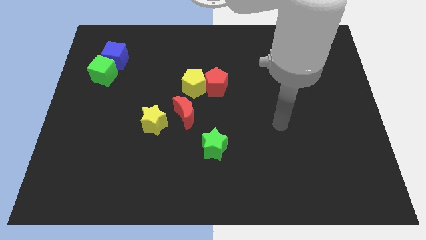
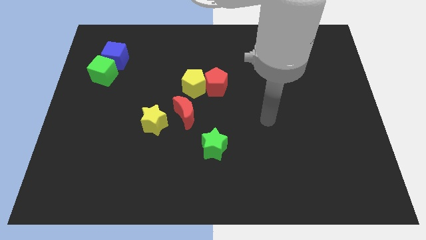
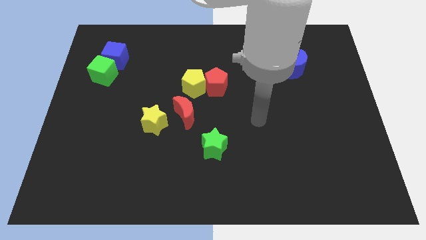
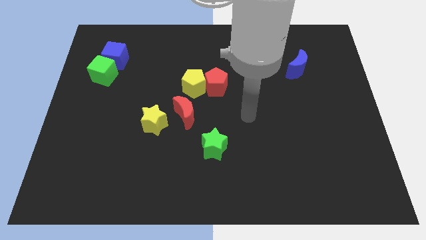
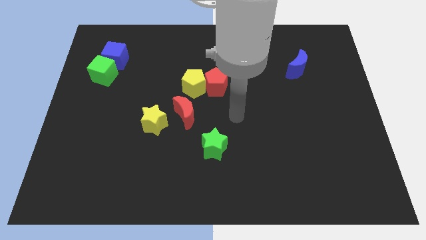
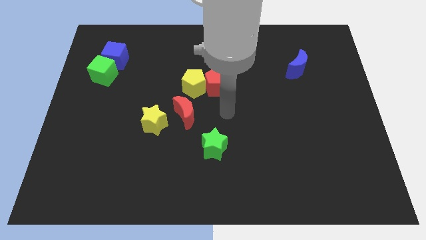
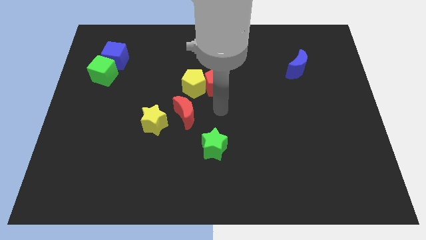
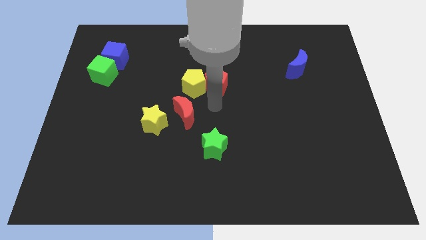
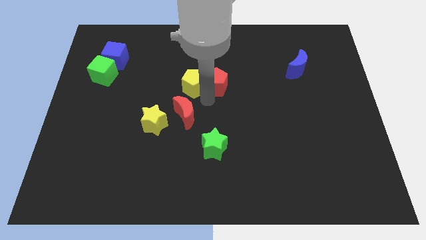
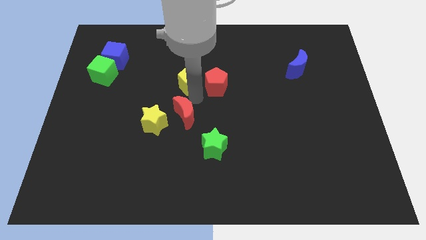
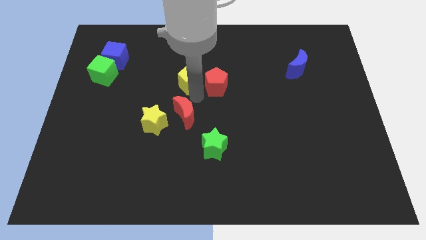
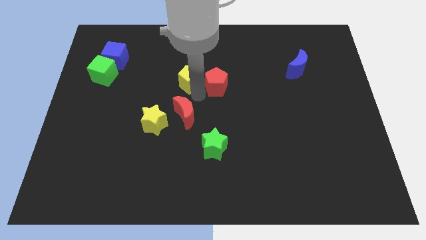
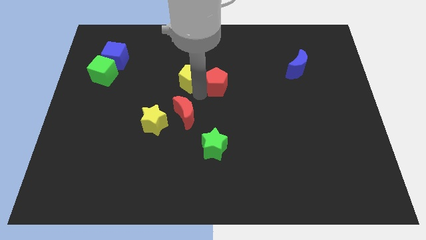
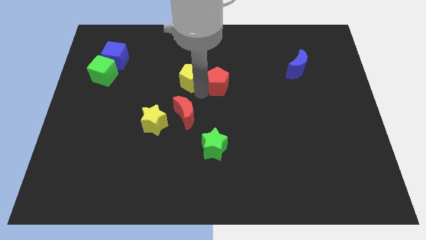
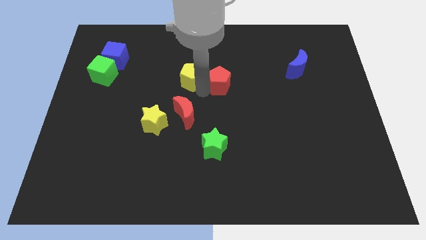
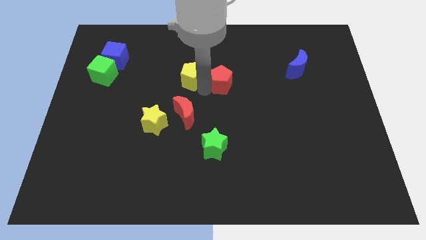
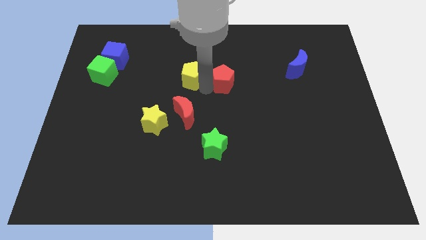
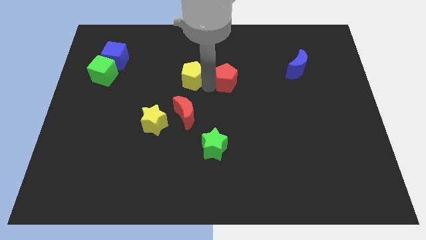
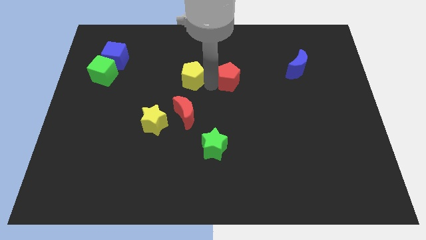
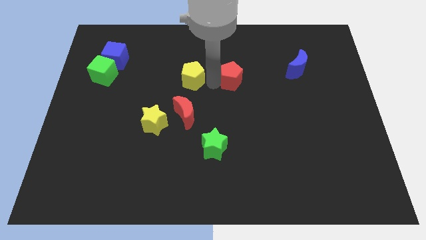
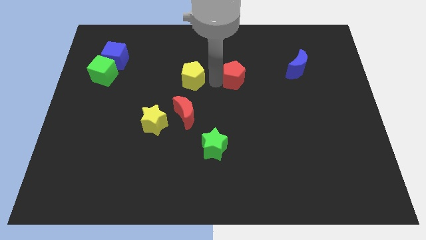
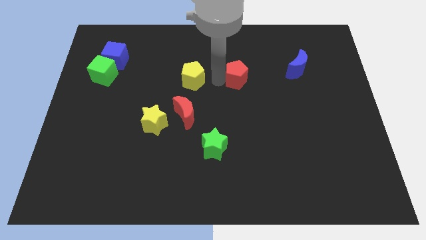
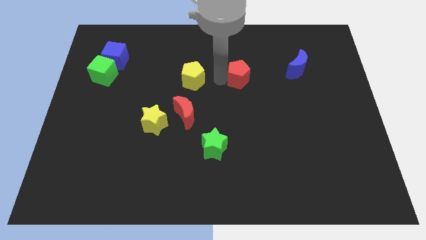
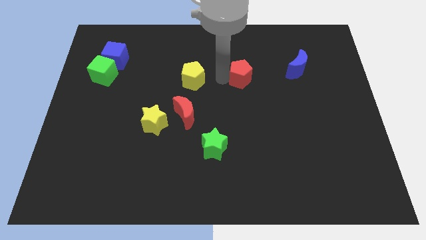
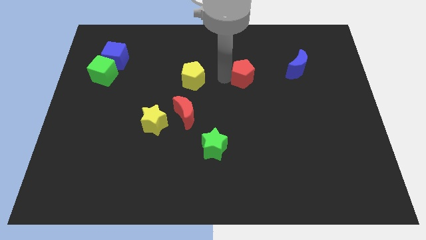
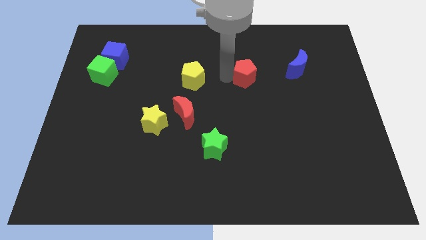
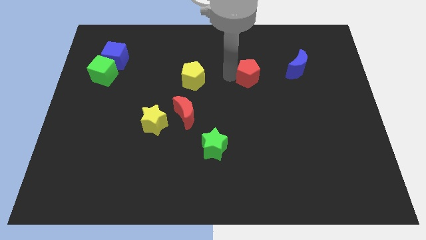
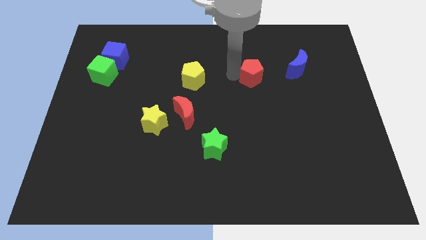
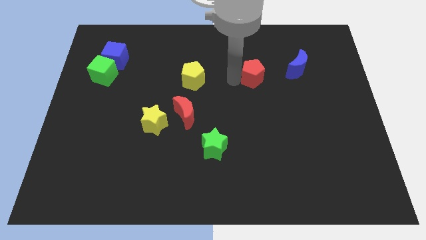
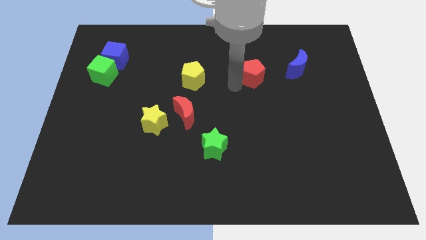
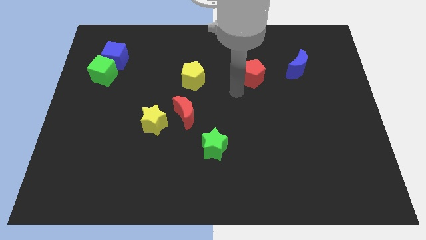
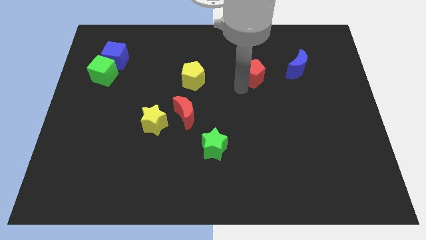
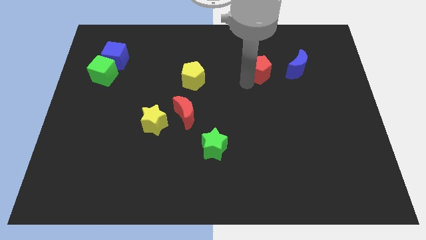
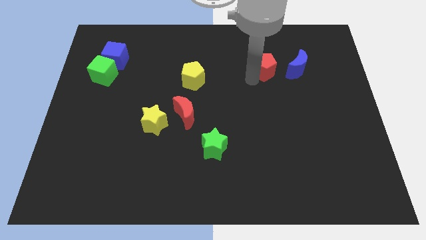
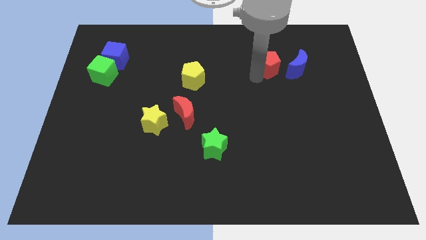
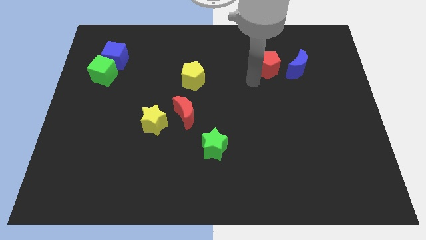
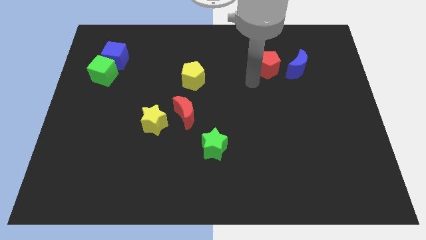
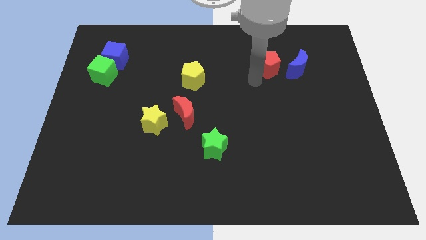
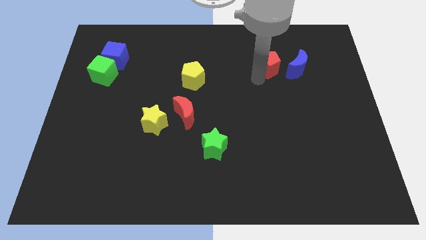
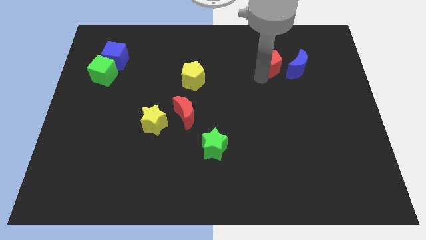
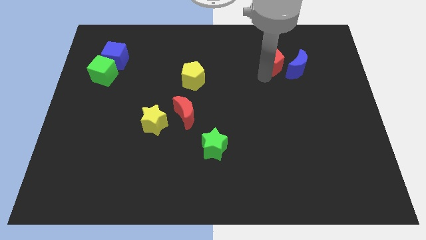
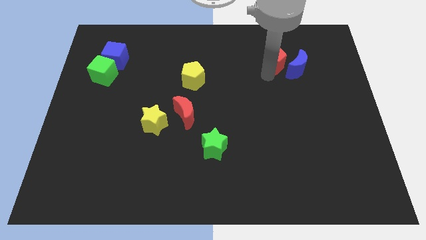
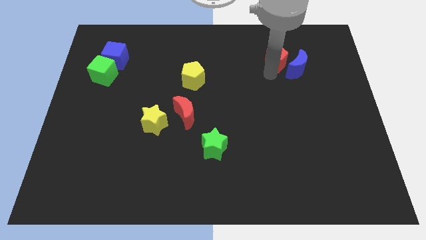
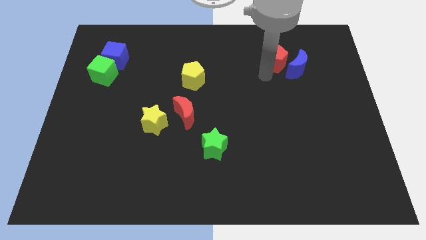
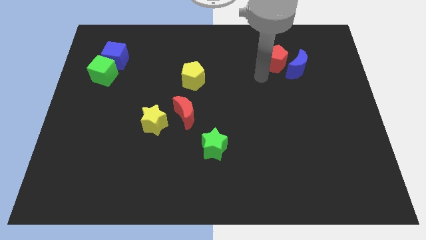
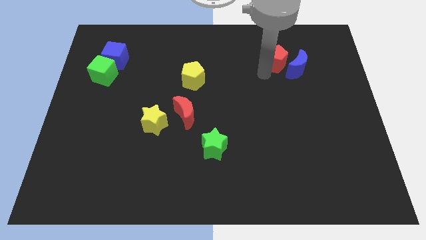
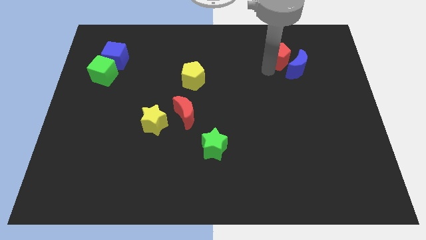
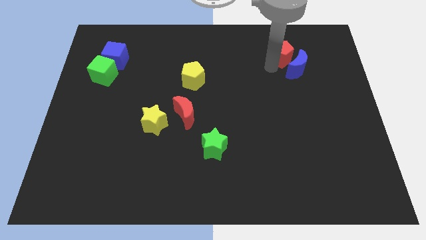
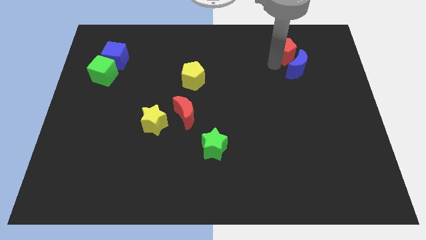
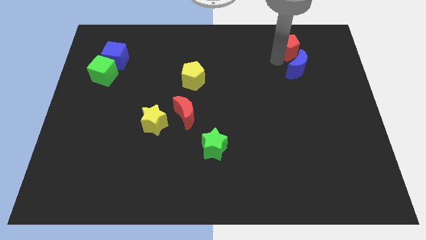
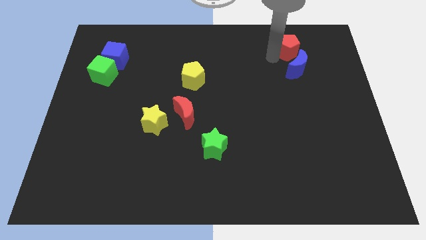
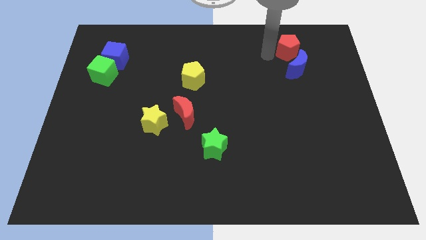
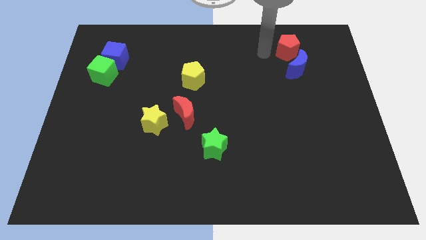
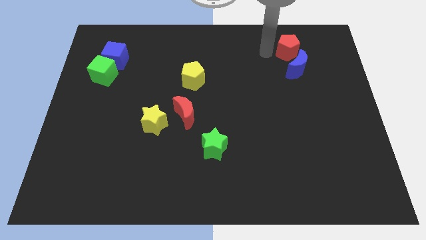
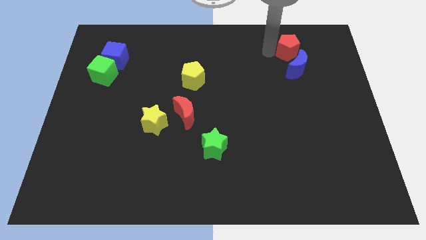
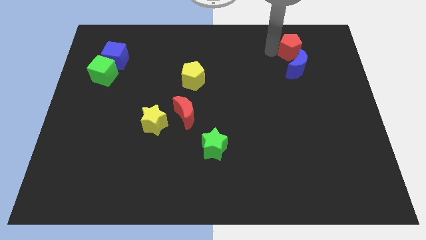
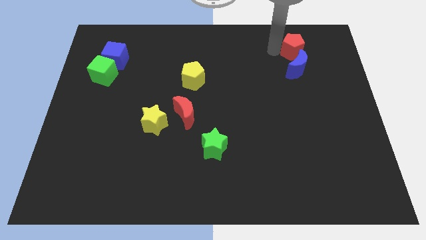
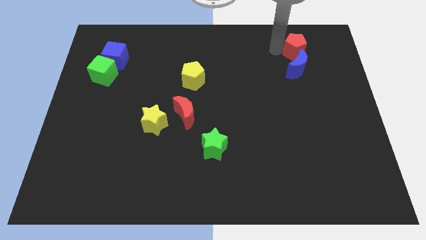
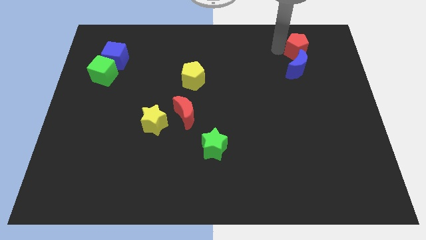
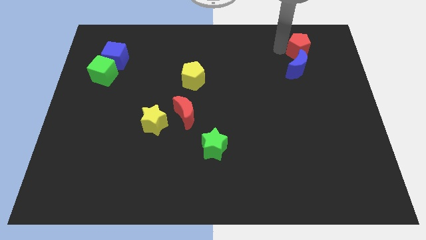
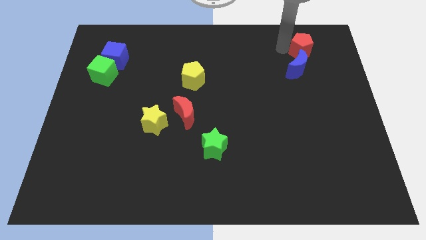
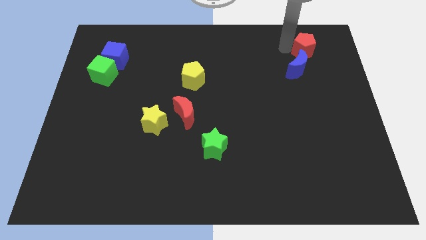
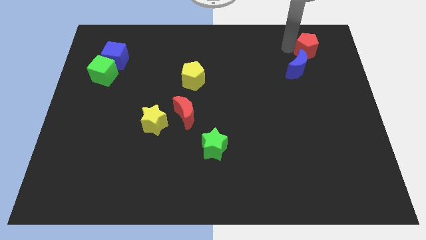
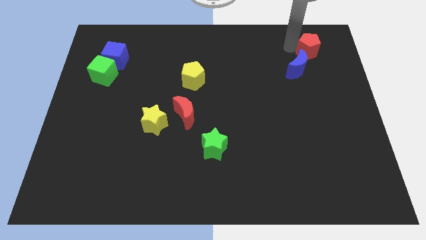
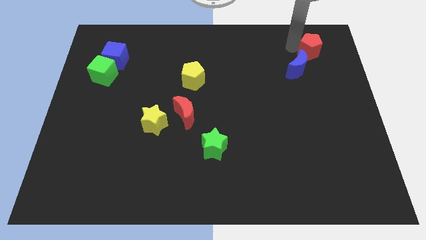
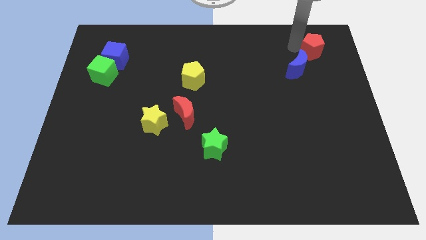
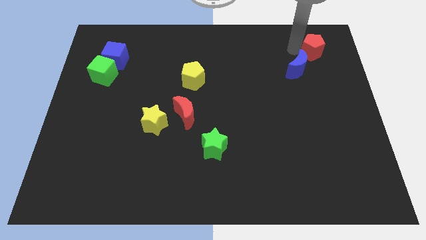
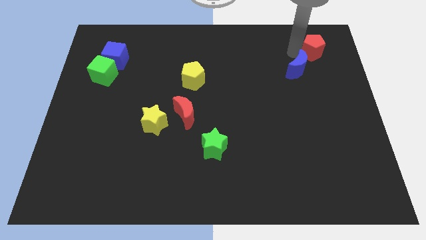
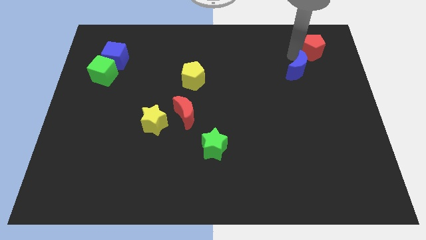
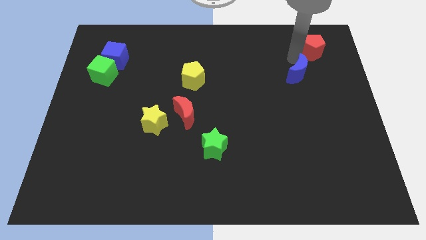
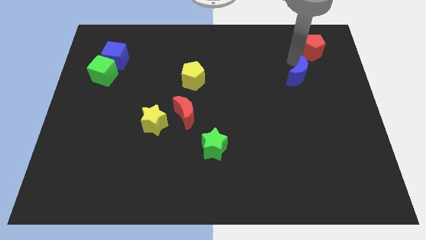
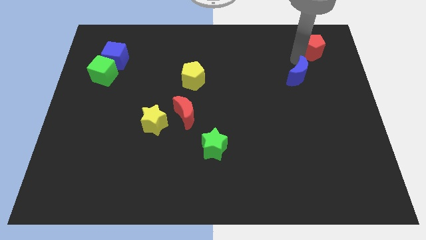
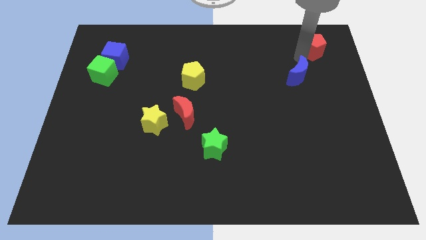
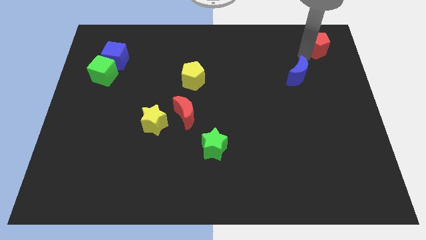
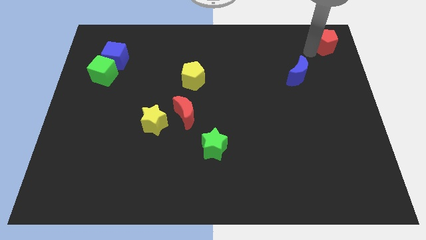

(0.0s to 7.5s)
push the red pentagon to the top right corner
